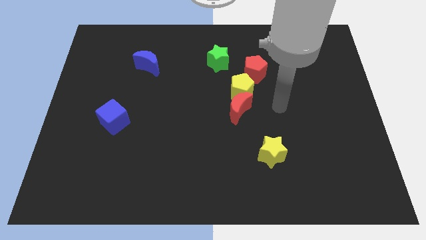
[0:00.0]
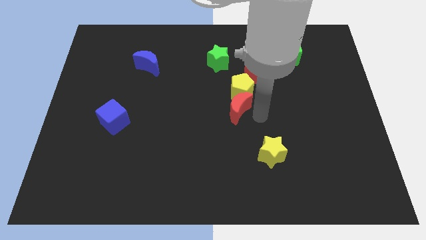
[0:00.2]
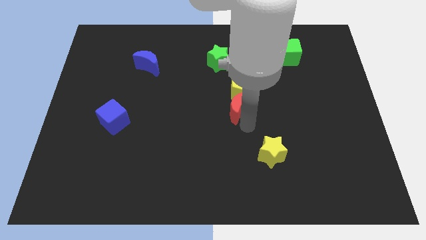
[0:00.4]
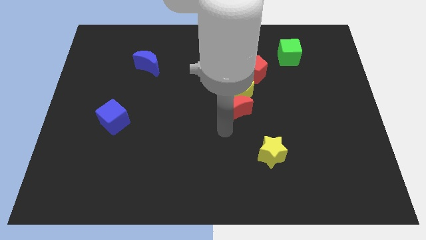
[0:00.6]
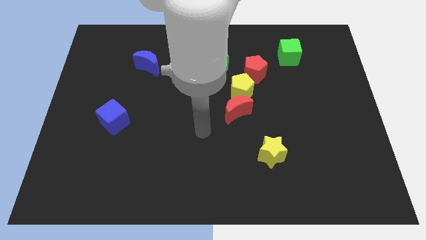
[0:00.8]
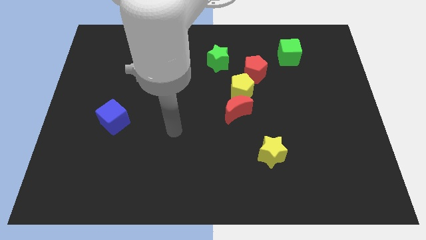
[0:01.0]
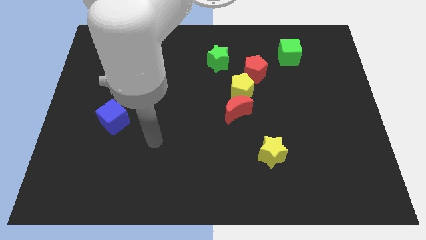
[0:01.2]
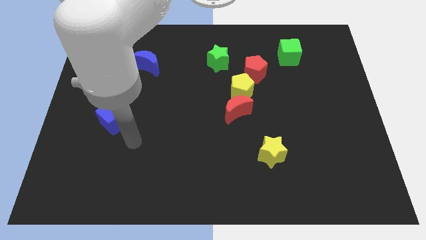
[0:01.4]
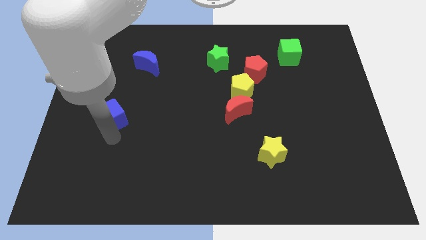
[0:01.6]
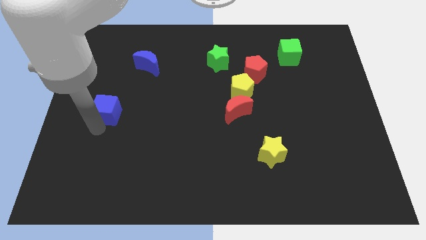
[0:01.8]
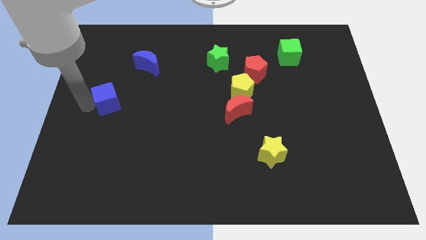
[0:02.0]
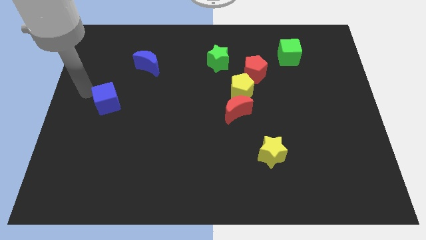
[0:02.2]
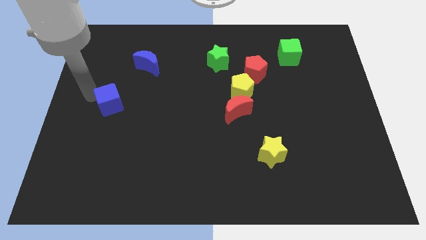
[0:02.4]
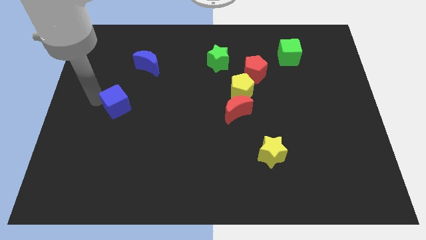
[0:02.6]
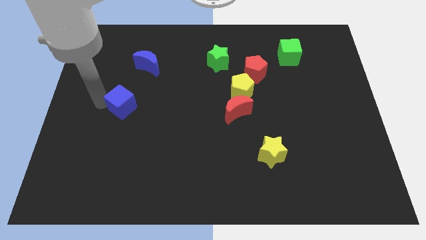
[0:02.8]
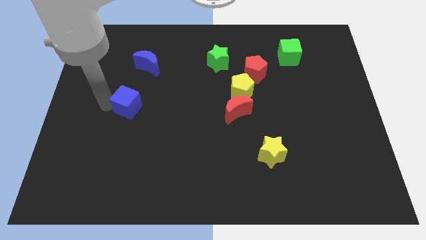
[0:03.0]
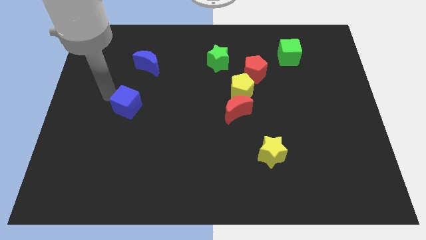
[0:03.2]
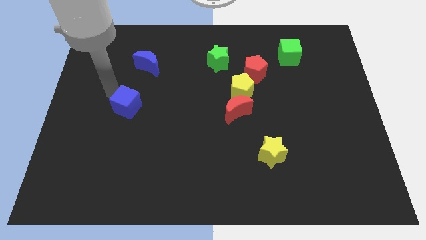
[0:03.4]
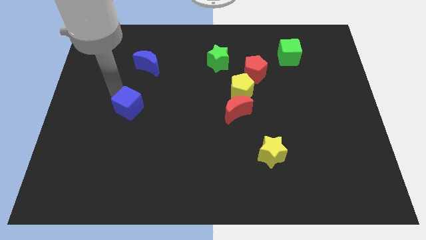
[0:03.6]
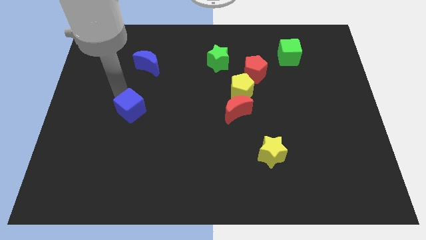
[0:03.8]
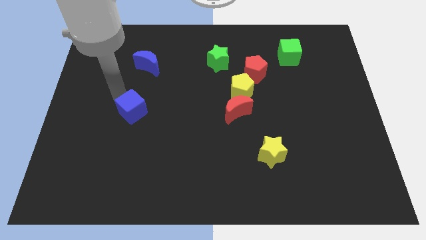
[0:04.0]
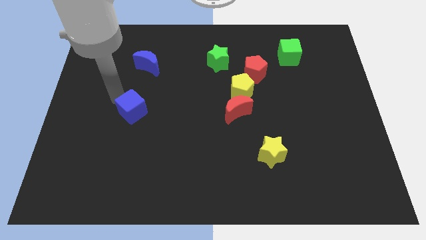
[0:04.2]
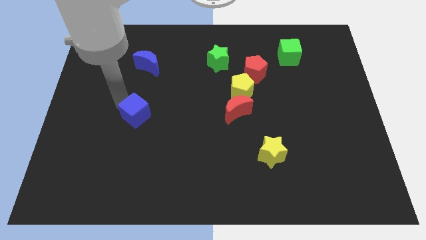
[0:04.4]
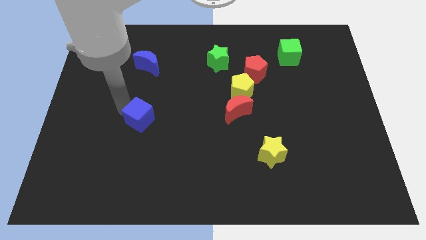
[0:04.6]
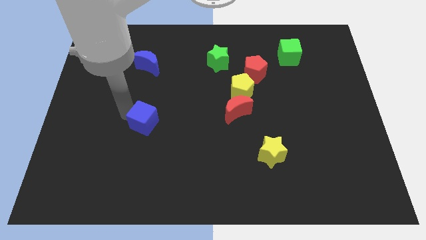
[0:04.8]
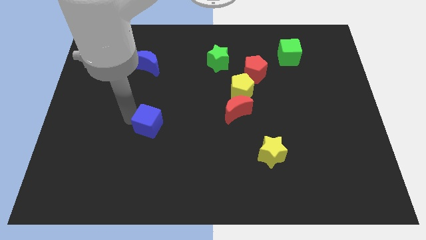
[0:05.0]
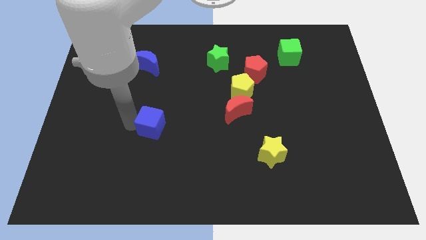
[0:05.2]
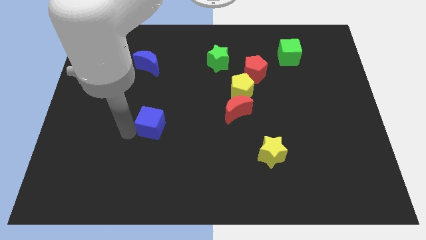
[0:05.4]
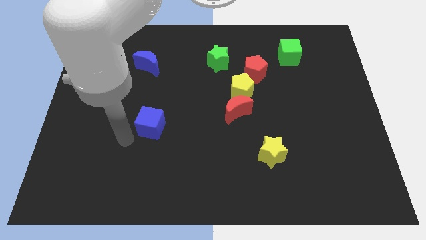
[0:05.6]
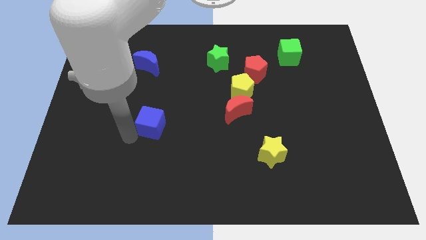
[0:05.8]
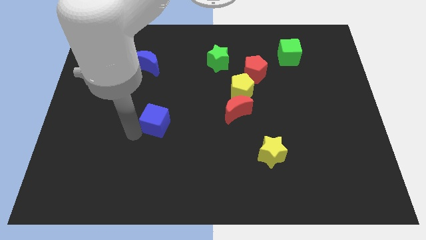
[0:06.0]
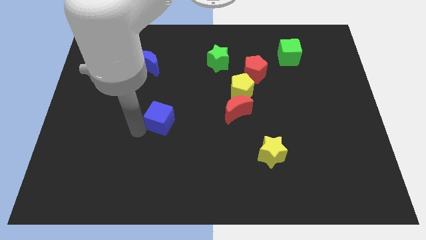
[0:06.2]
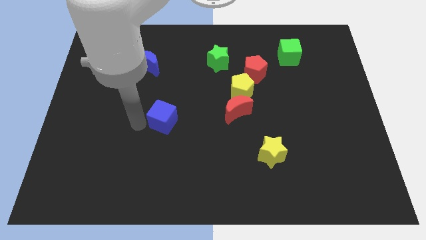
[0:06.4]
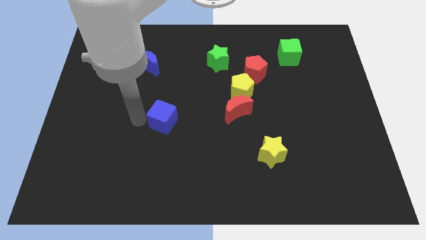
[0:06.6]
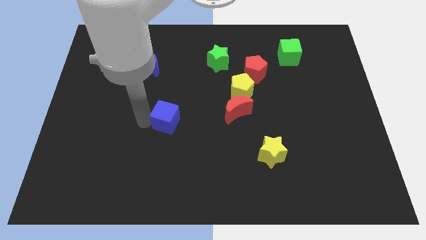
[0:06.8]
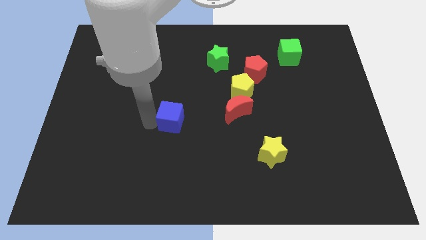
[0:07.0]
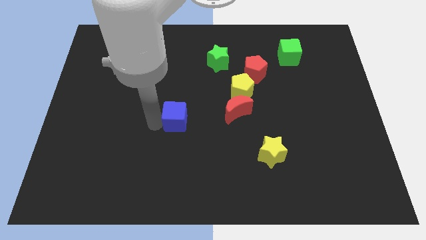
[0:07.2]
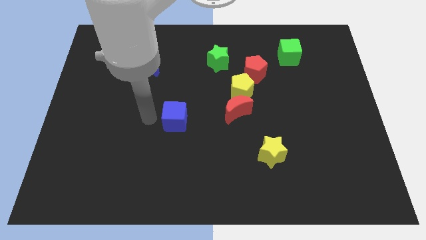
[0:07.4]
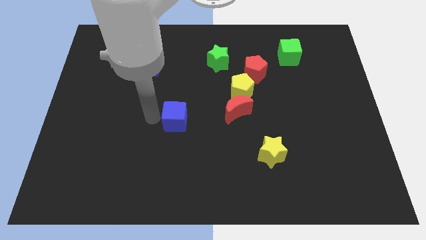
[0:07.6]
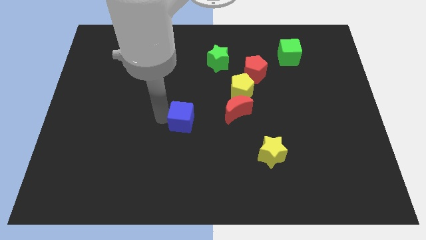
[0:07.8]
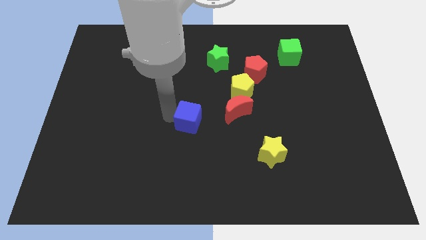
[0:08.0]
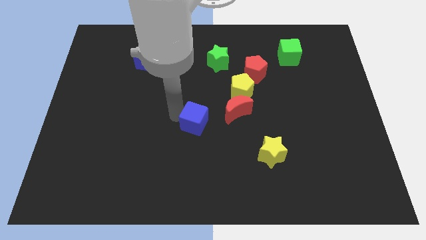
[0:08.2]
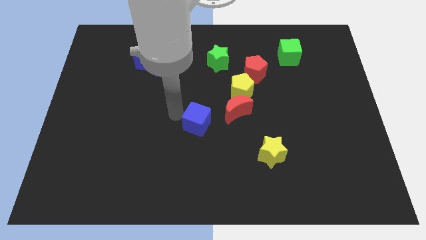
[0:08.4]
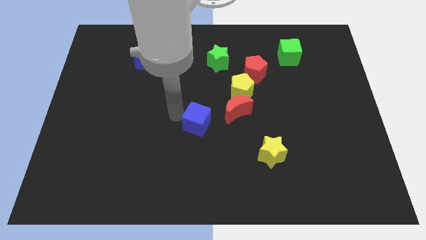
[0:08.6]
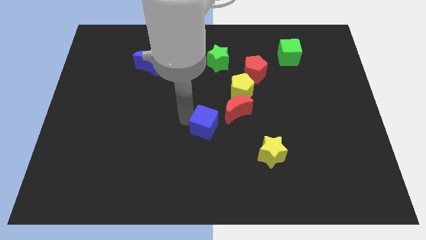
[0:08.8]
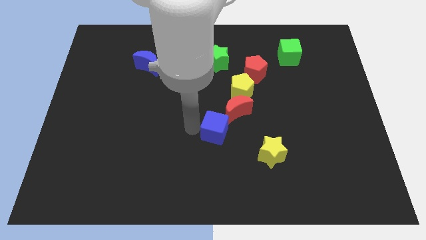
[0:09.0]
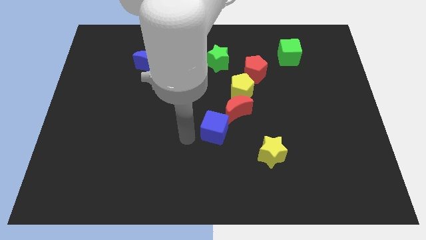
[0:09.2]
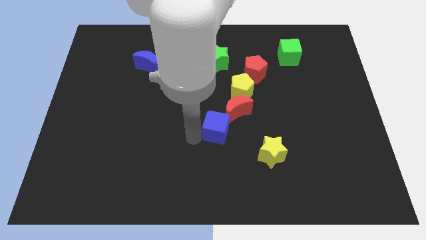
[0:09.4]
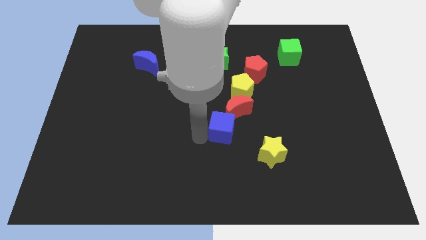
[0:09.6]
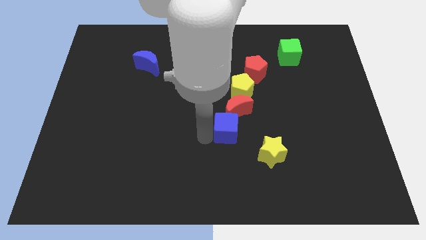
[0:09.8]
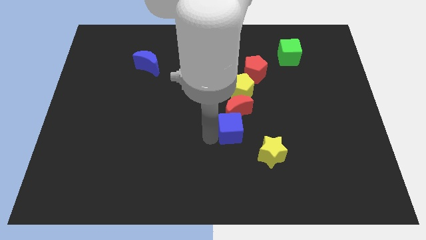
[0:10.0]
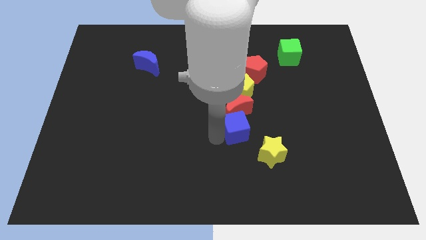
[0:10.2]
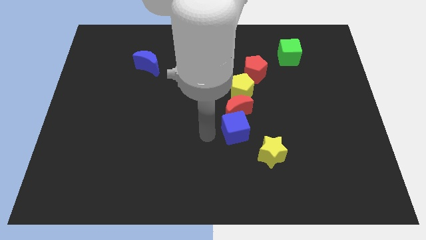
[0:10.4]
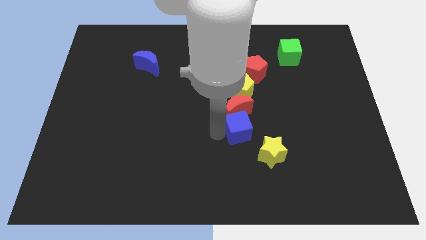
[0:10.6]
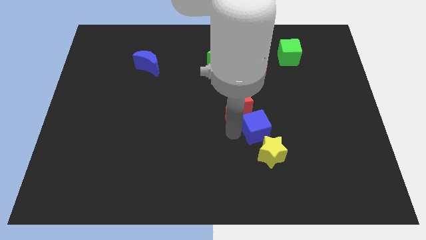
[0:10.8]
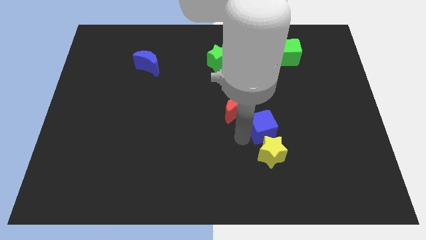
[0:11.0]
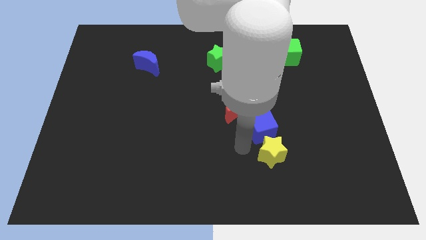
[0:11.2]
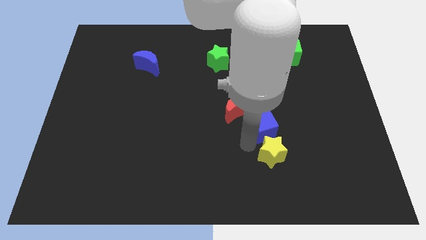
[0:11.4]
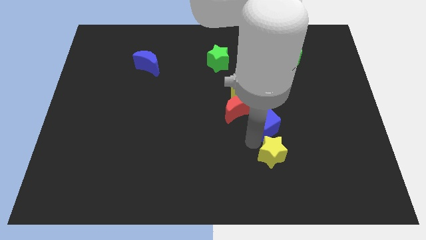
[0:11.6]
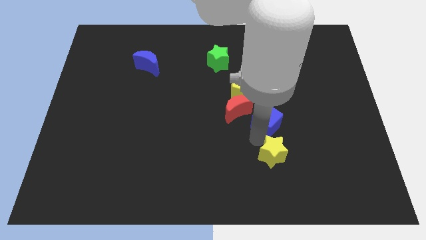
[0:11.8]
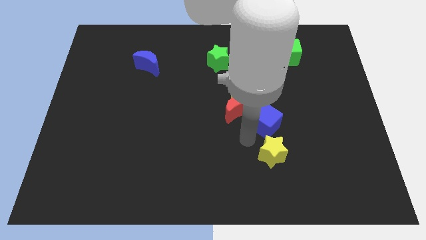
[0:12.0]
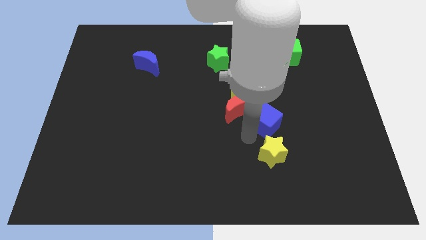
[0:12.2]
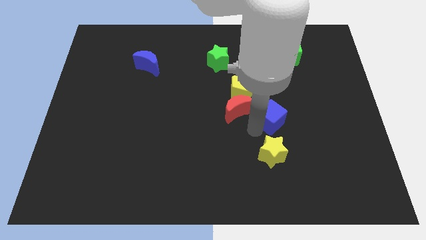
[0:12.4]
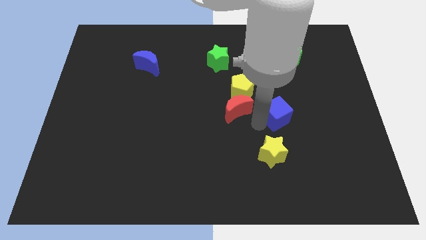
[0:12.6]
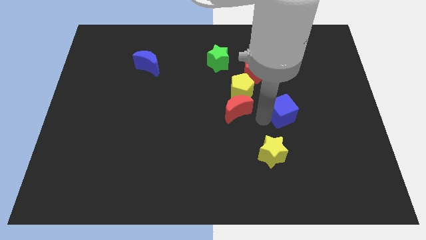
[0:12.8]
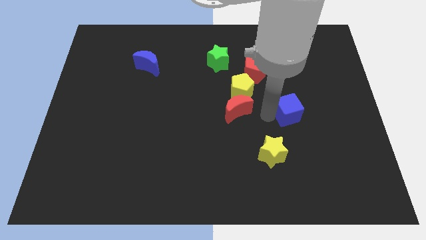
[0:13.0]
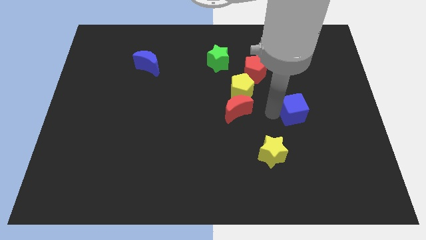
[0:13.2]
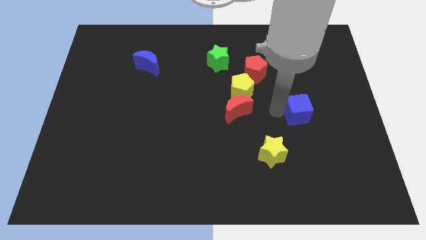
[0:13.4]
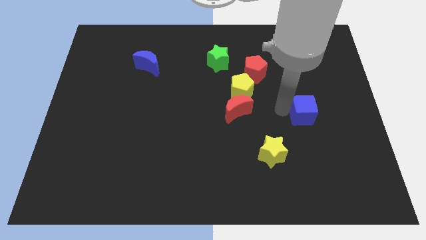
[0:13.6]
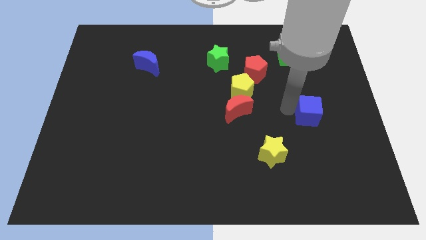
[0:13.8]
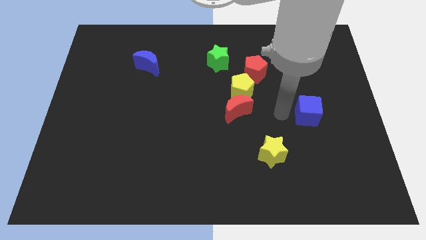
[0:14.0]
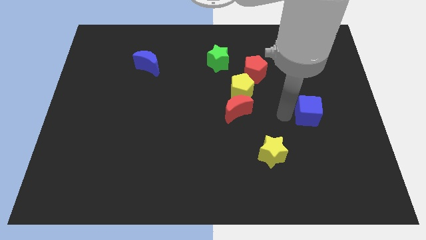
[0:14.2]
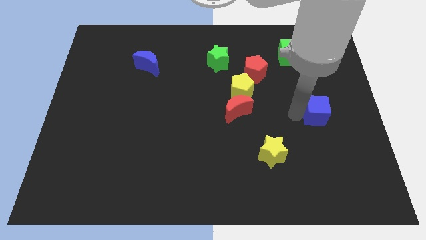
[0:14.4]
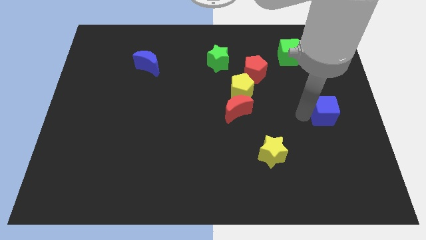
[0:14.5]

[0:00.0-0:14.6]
push the blue cube to the right side
